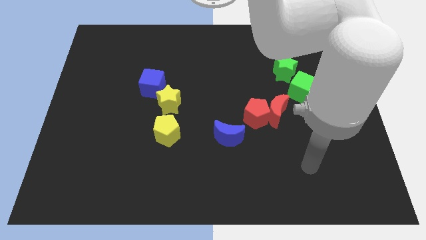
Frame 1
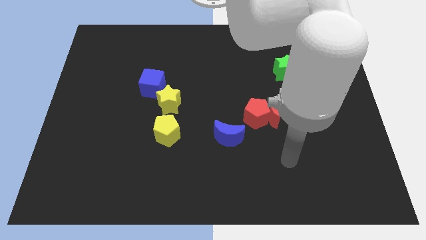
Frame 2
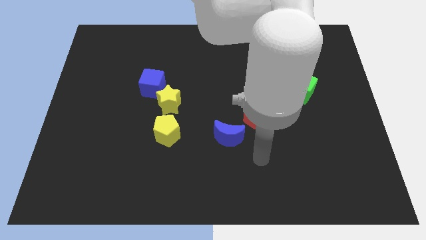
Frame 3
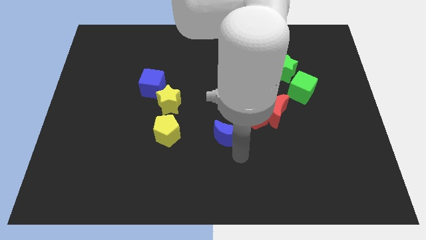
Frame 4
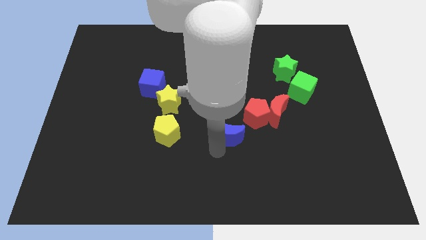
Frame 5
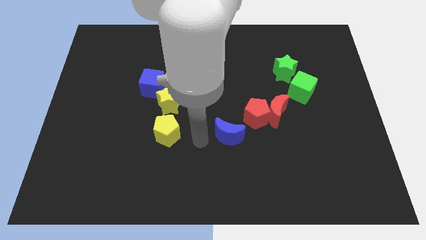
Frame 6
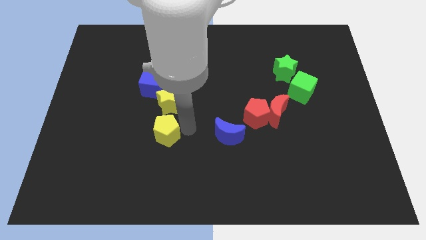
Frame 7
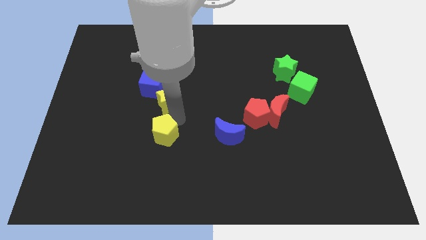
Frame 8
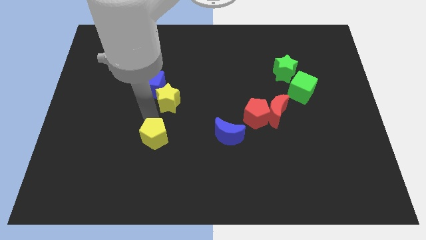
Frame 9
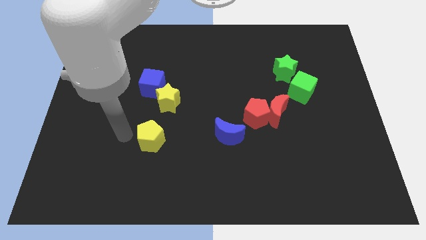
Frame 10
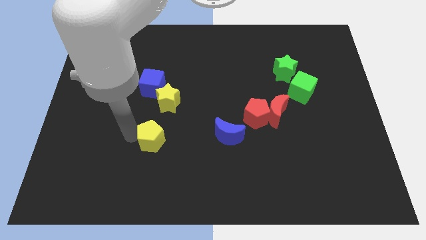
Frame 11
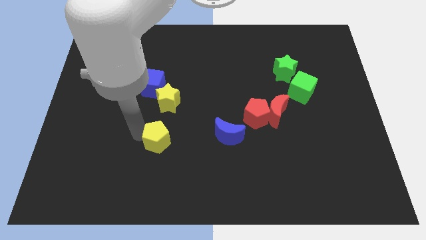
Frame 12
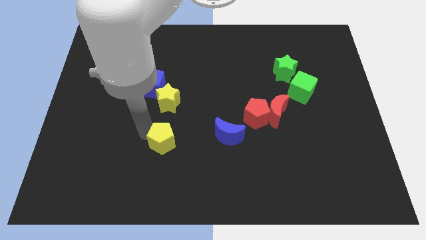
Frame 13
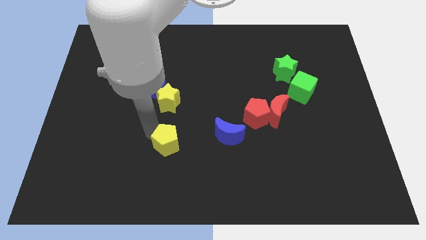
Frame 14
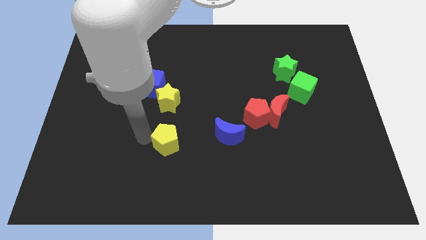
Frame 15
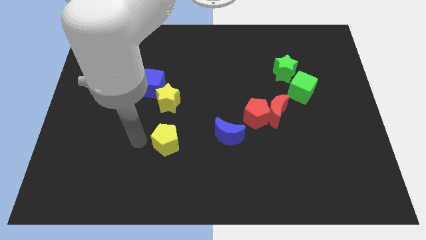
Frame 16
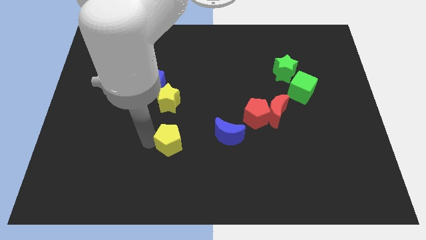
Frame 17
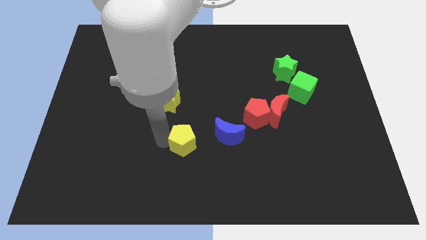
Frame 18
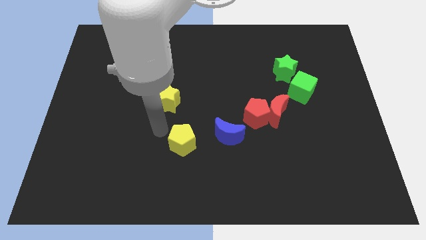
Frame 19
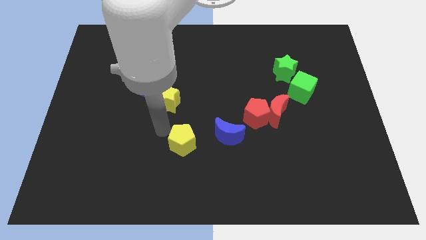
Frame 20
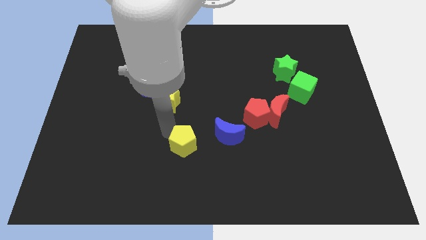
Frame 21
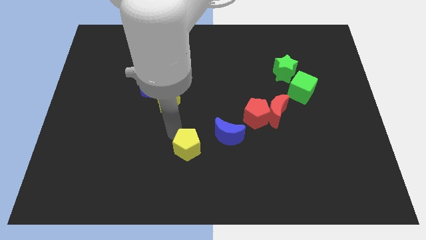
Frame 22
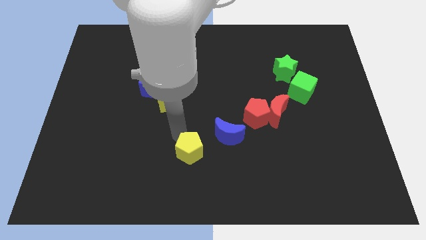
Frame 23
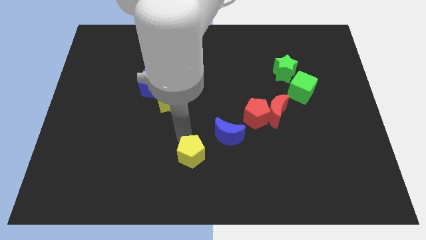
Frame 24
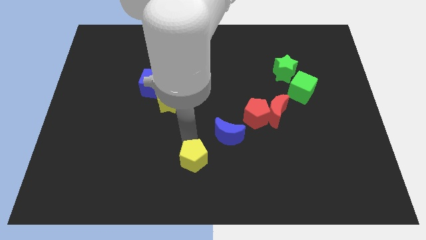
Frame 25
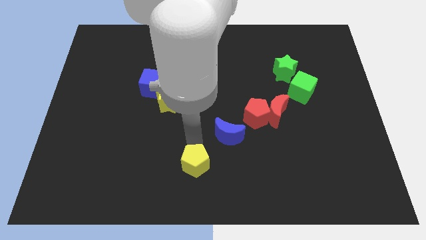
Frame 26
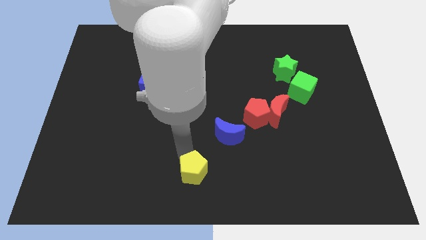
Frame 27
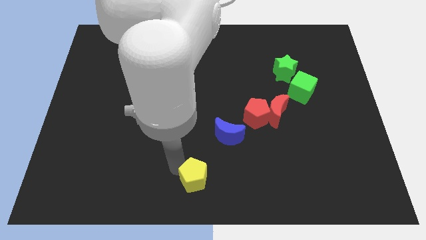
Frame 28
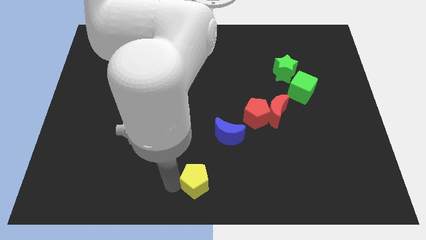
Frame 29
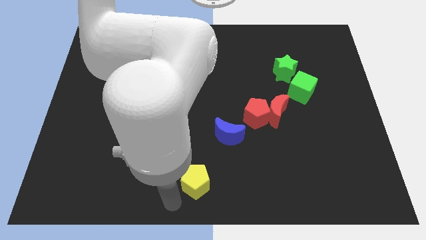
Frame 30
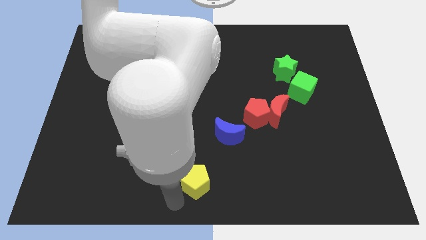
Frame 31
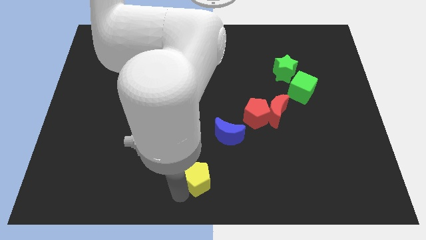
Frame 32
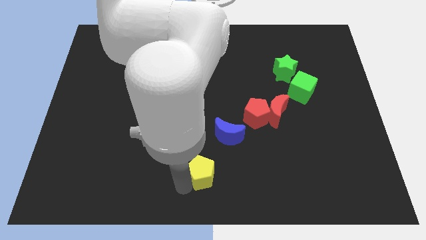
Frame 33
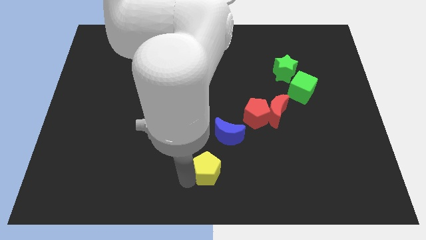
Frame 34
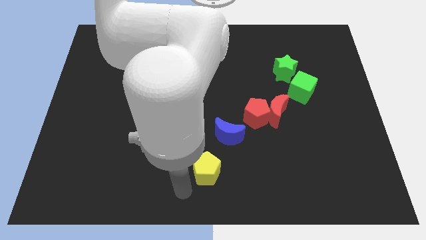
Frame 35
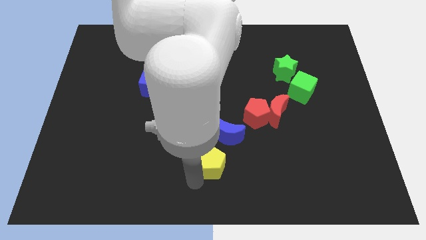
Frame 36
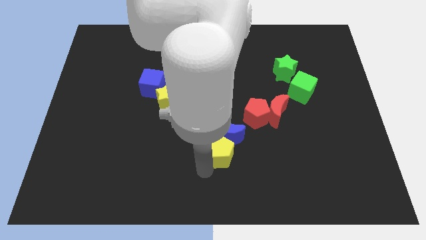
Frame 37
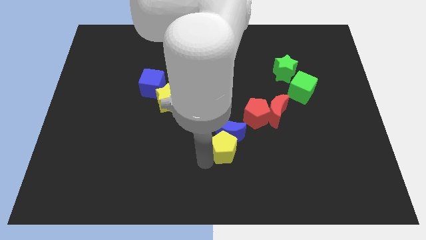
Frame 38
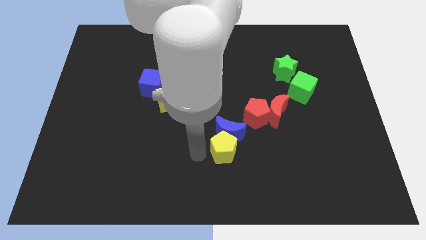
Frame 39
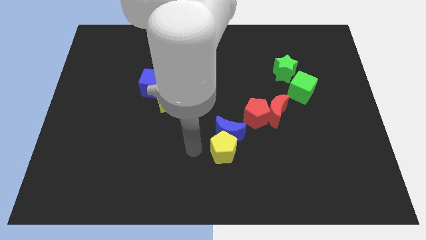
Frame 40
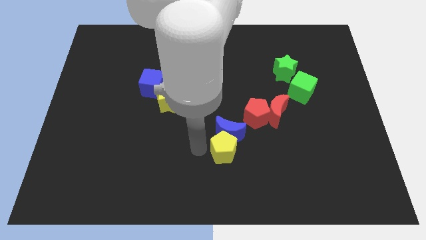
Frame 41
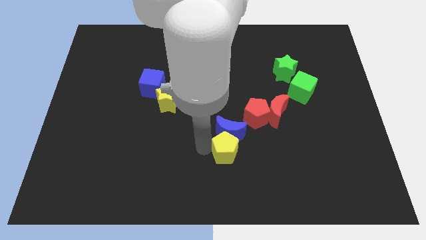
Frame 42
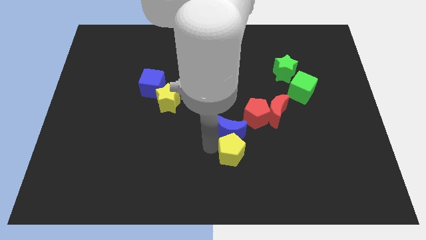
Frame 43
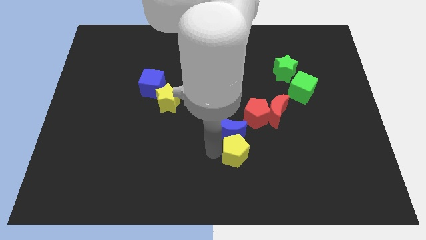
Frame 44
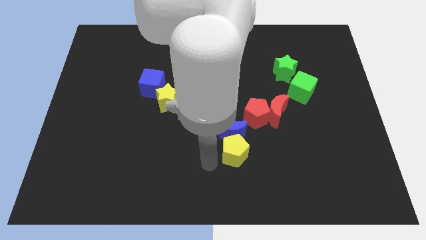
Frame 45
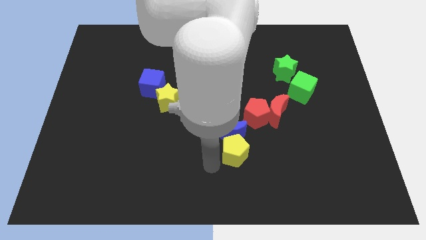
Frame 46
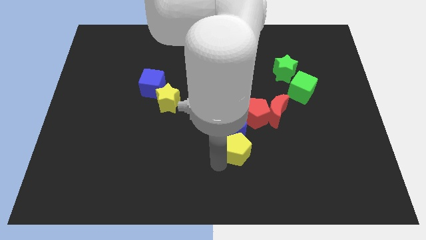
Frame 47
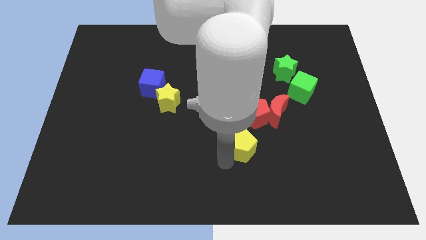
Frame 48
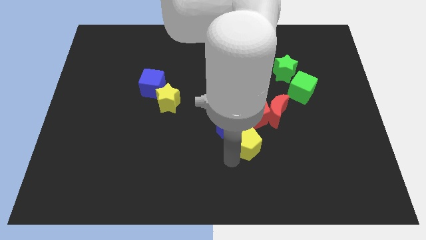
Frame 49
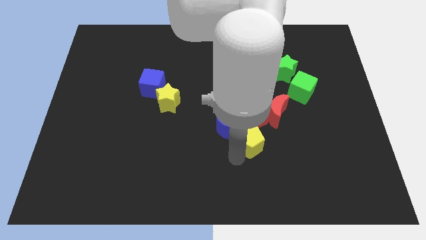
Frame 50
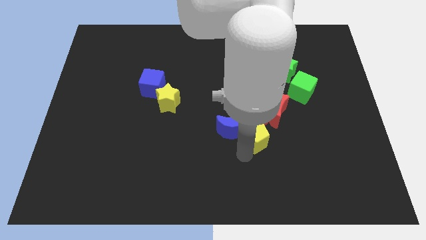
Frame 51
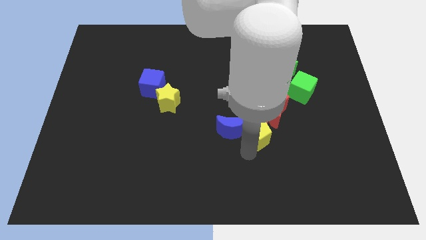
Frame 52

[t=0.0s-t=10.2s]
slide the yellow pentagon to the right

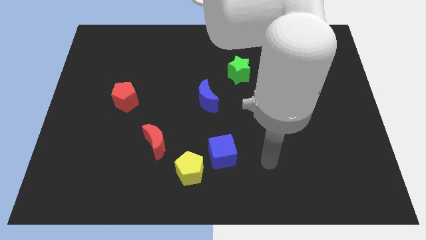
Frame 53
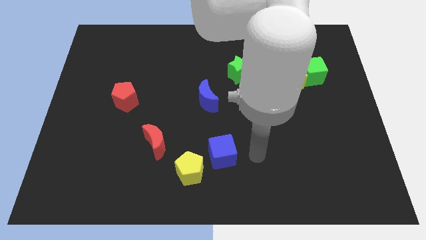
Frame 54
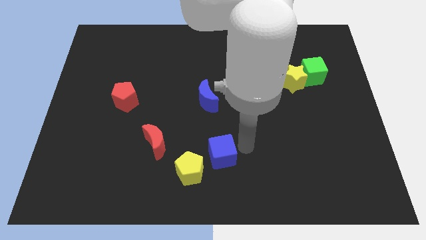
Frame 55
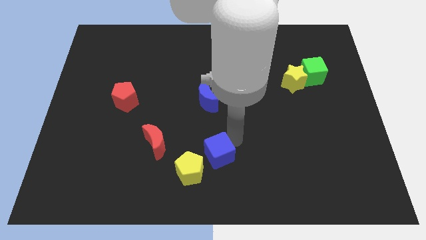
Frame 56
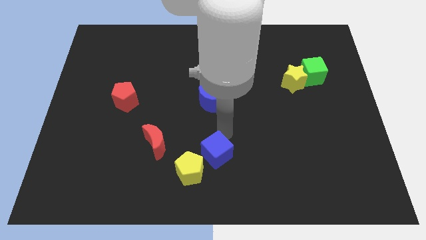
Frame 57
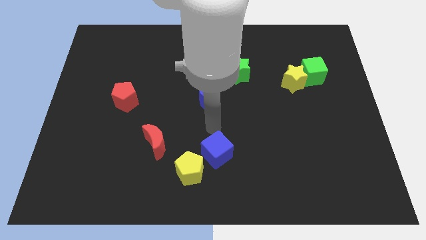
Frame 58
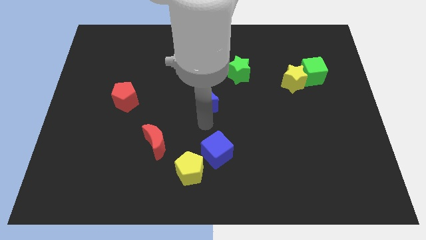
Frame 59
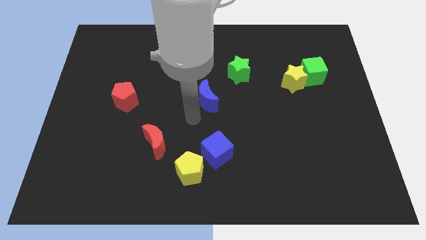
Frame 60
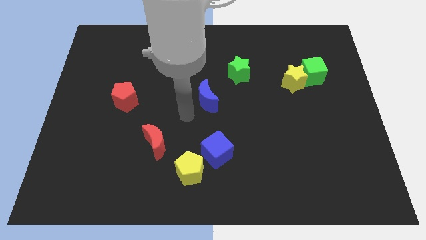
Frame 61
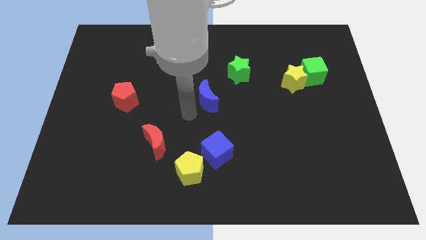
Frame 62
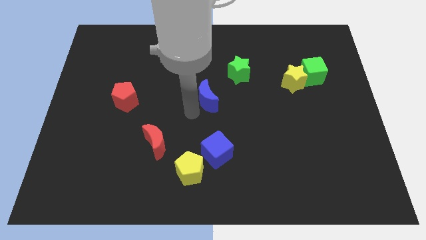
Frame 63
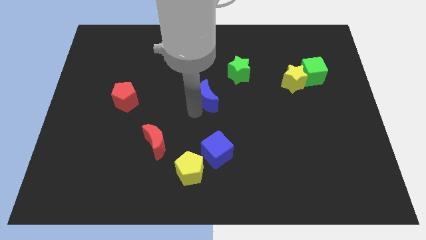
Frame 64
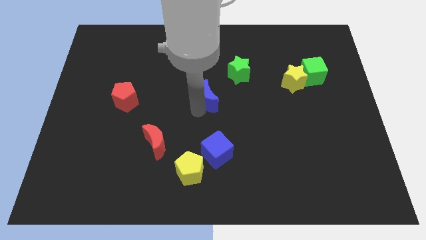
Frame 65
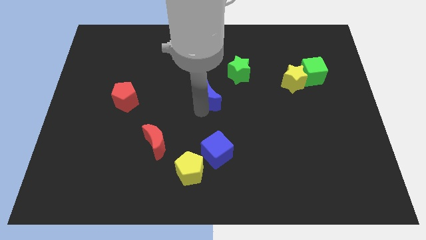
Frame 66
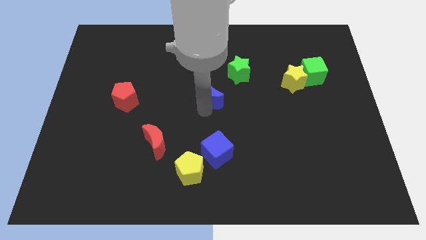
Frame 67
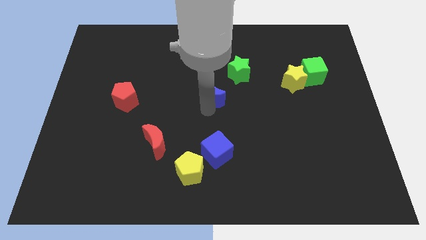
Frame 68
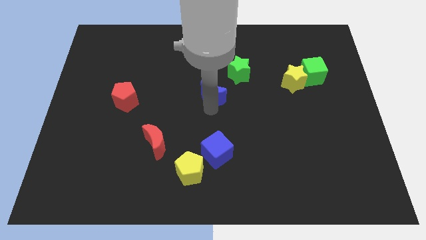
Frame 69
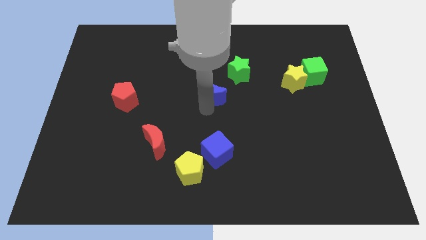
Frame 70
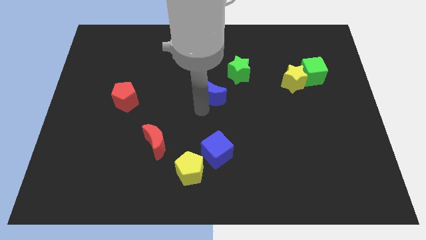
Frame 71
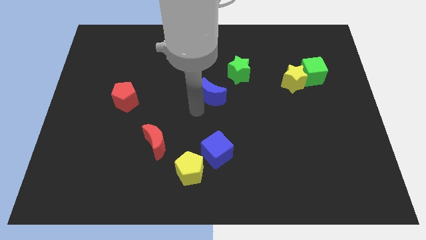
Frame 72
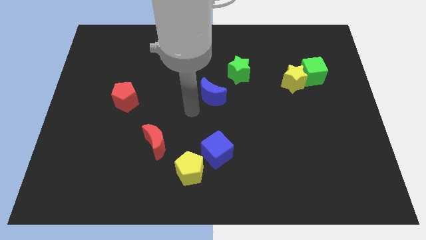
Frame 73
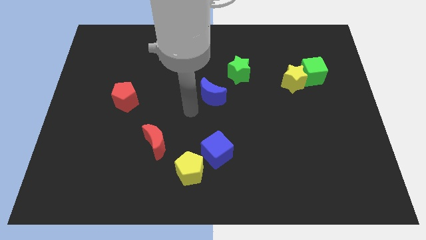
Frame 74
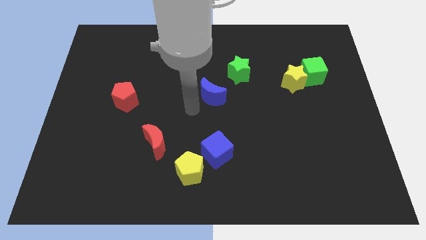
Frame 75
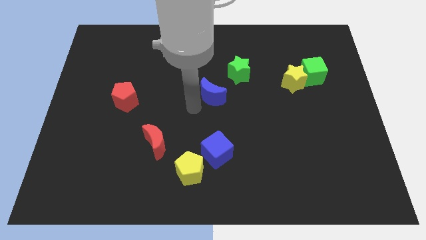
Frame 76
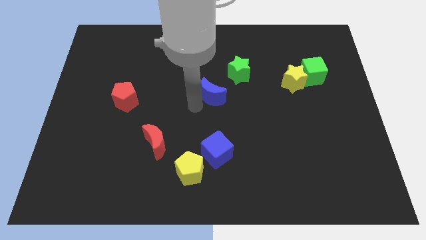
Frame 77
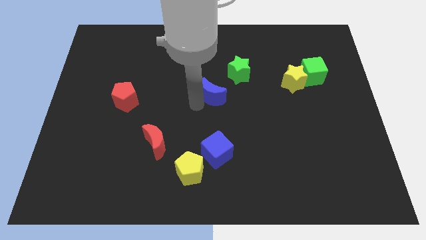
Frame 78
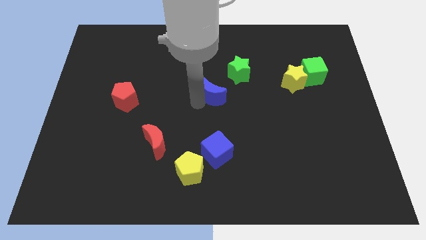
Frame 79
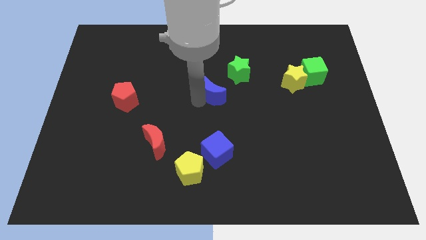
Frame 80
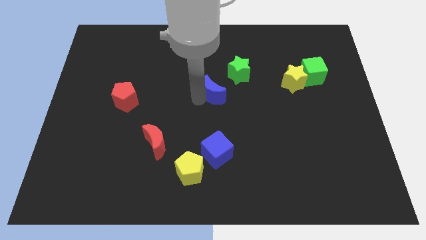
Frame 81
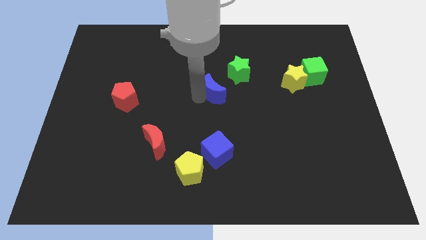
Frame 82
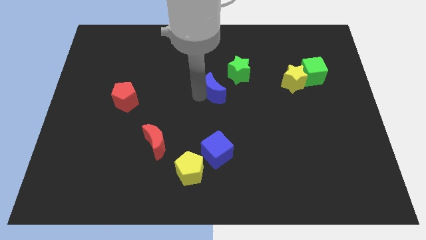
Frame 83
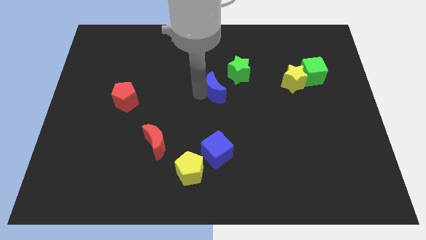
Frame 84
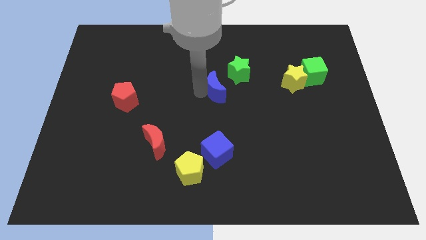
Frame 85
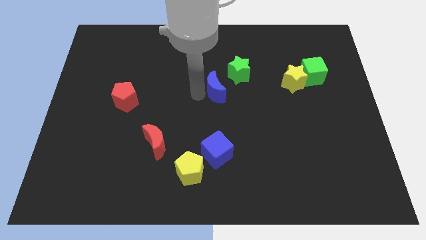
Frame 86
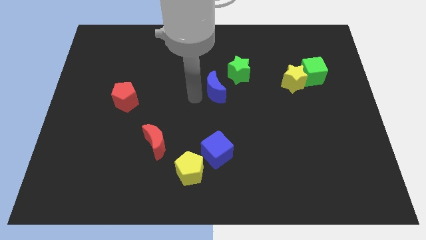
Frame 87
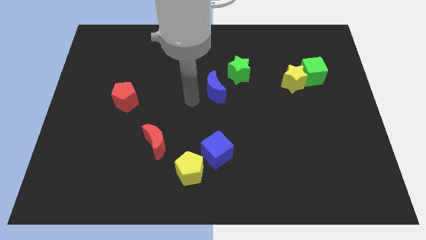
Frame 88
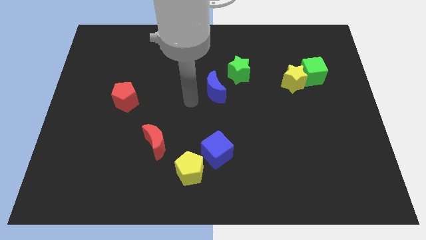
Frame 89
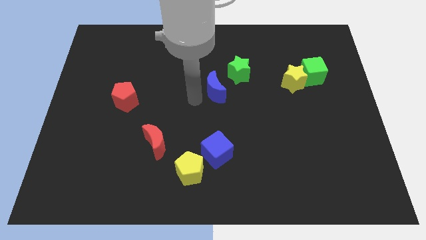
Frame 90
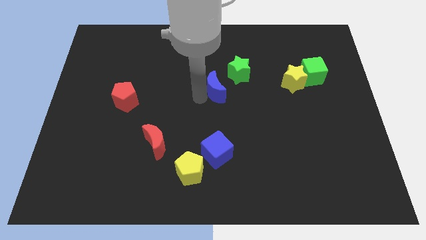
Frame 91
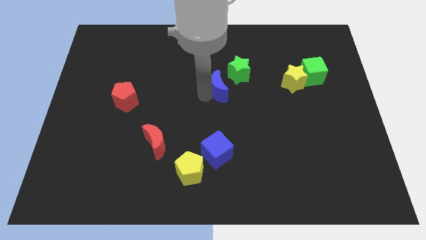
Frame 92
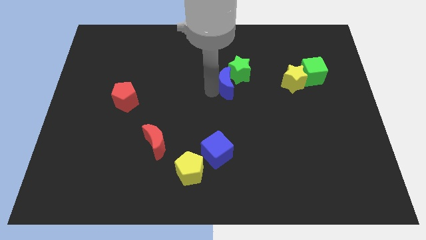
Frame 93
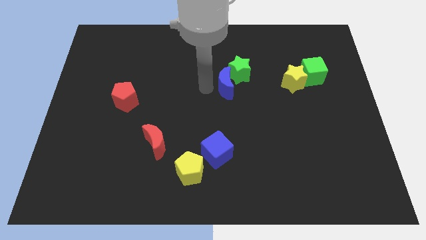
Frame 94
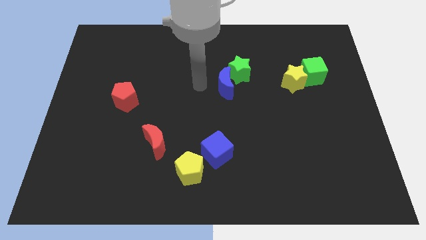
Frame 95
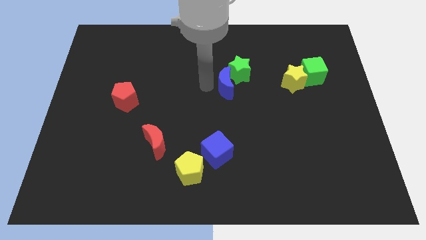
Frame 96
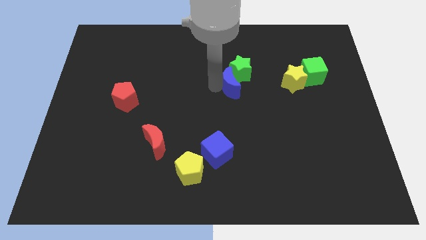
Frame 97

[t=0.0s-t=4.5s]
move the blue moon slightly diagonally upwards and to the right
